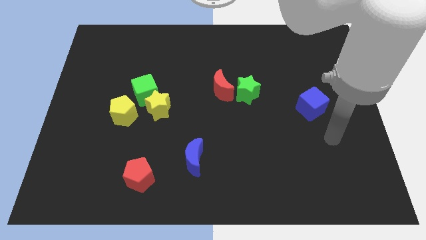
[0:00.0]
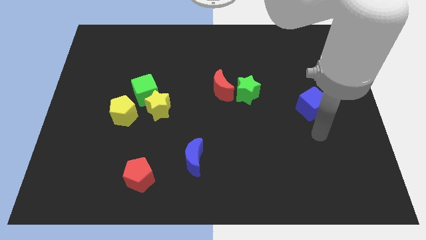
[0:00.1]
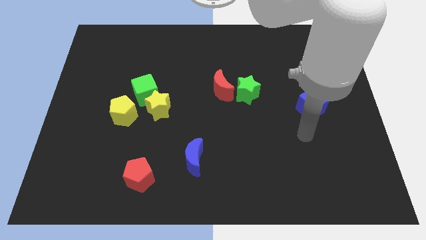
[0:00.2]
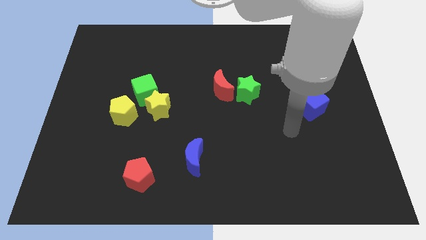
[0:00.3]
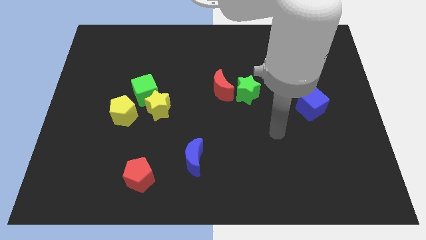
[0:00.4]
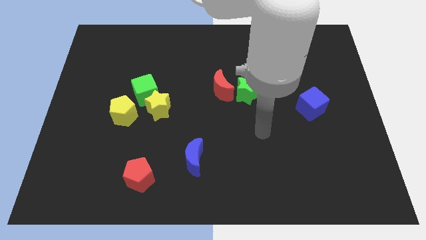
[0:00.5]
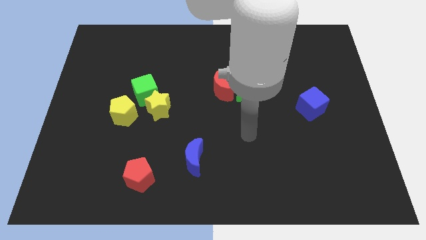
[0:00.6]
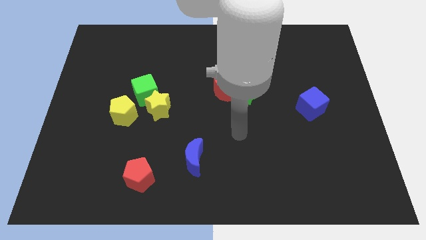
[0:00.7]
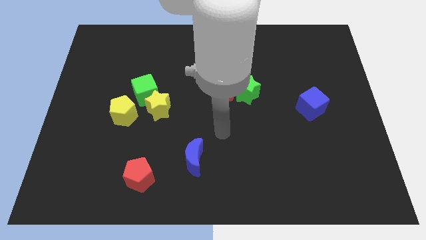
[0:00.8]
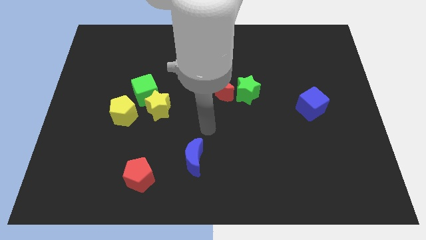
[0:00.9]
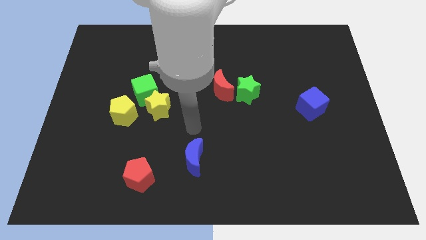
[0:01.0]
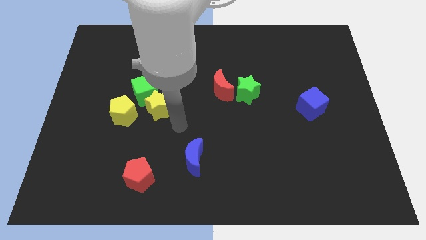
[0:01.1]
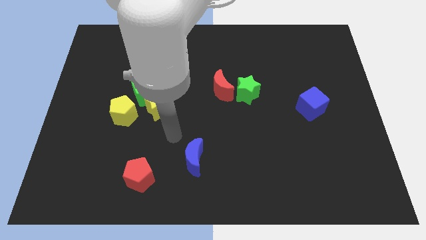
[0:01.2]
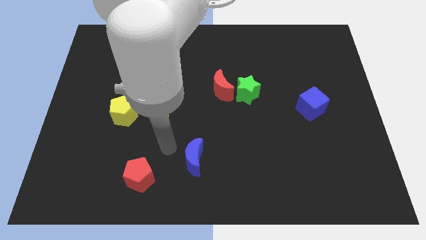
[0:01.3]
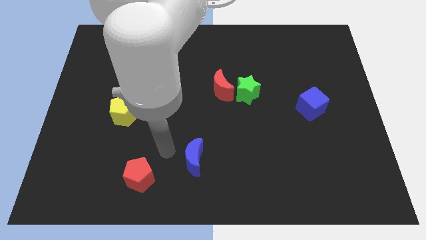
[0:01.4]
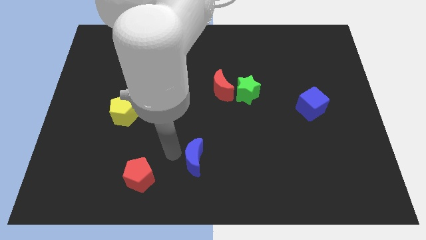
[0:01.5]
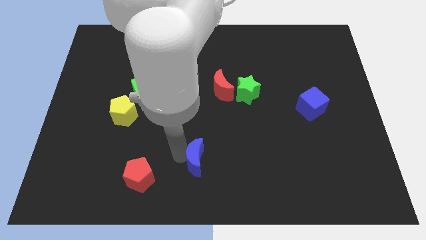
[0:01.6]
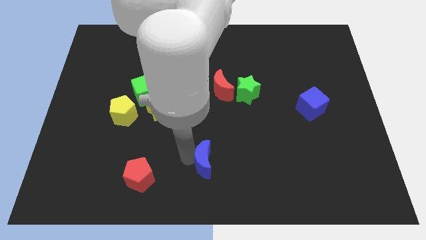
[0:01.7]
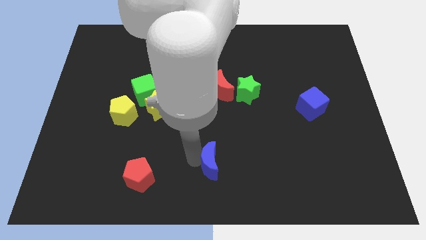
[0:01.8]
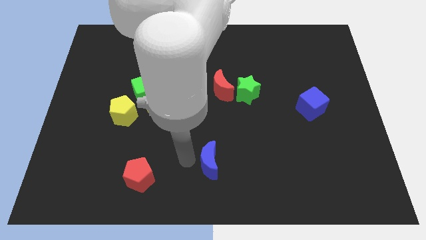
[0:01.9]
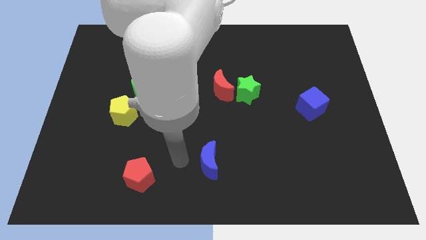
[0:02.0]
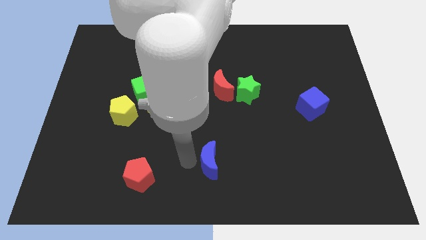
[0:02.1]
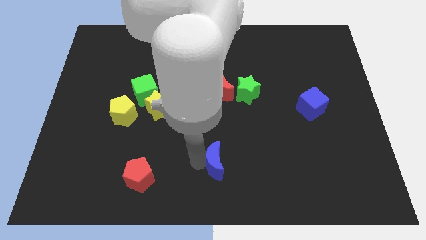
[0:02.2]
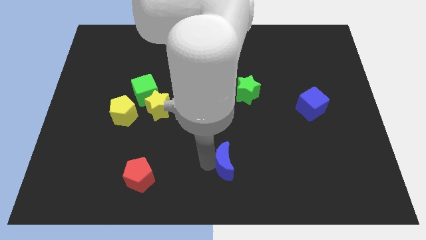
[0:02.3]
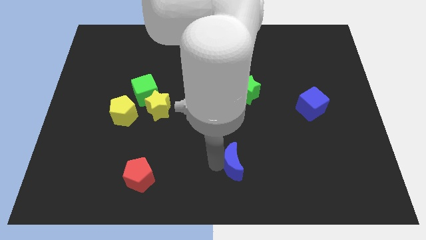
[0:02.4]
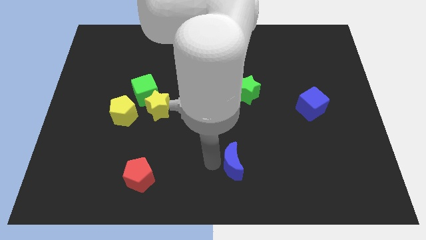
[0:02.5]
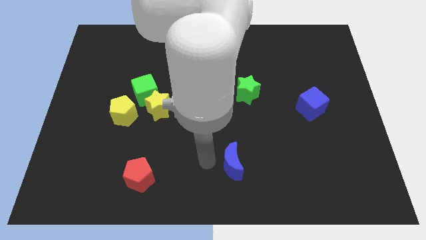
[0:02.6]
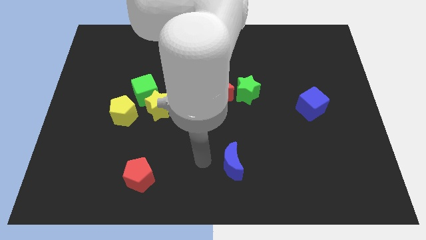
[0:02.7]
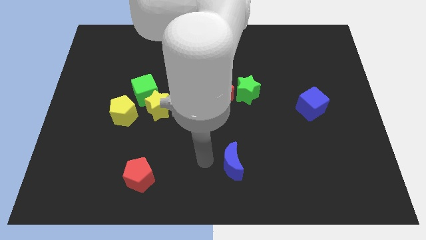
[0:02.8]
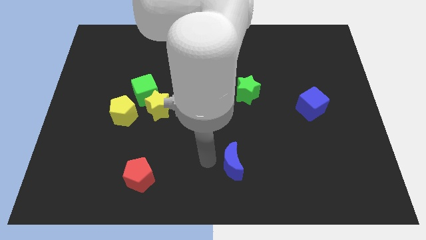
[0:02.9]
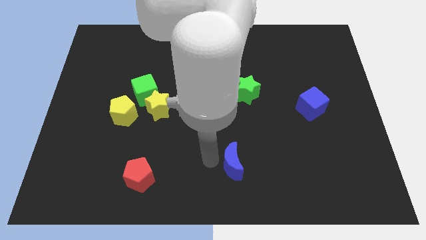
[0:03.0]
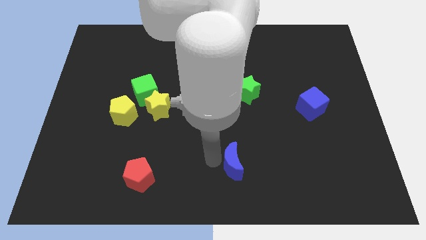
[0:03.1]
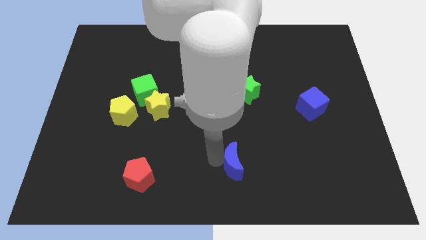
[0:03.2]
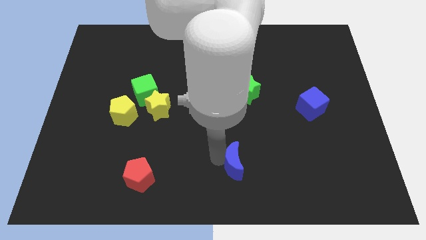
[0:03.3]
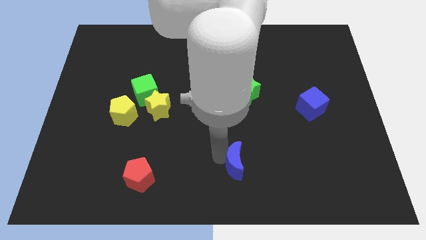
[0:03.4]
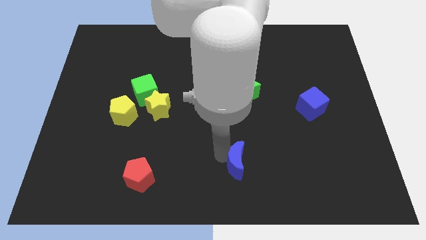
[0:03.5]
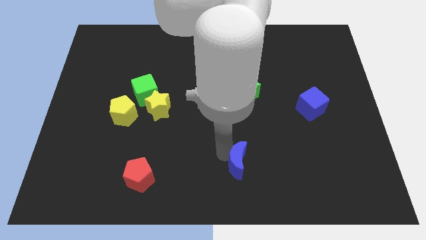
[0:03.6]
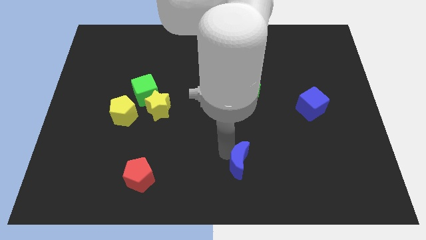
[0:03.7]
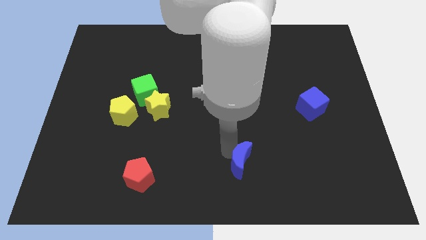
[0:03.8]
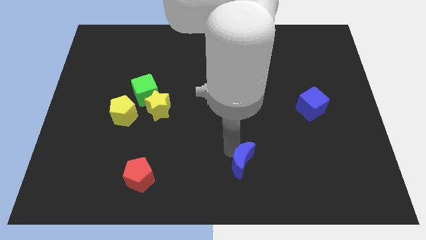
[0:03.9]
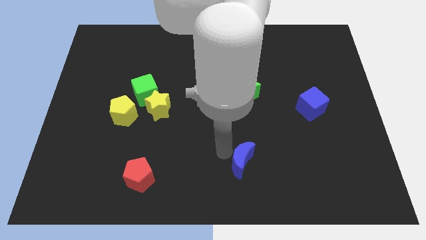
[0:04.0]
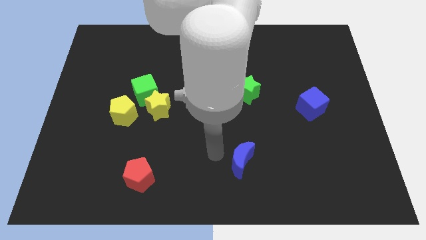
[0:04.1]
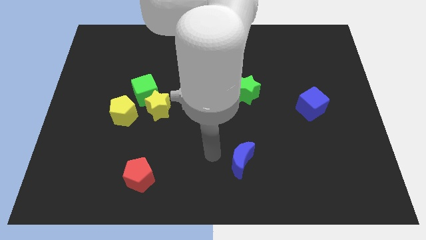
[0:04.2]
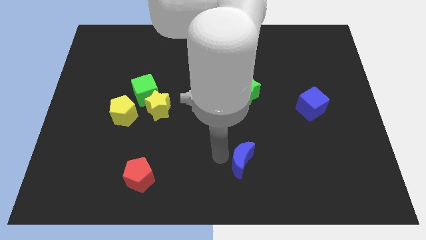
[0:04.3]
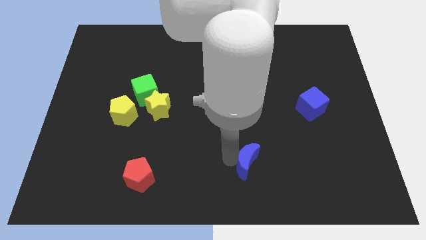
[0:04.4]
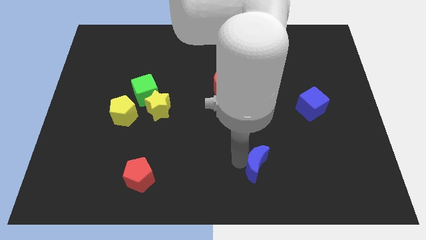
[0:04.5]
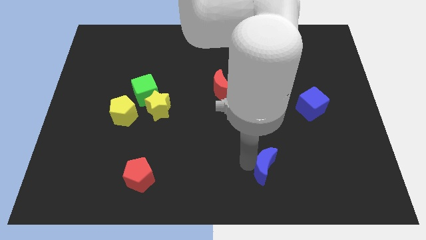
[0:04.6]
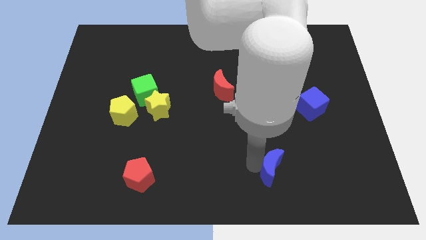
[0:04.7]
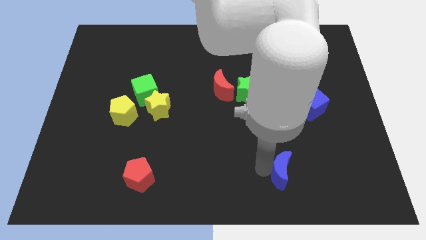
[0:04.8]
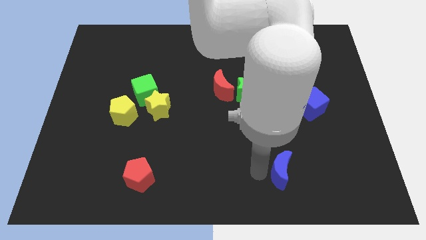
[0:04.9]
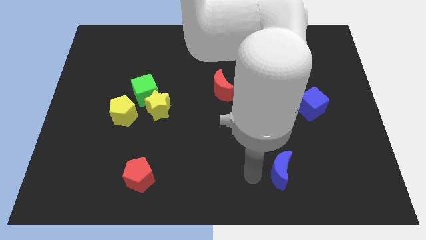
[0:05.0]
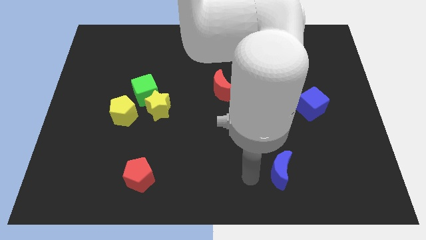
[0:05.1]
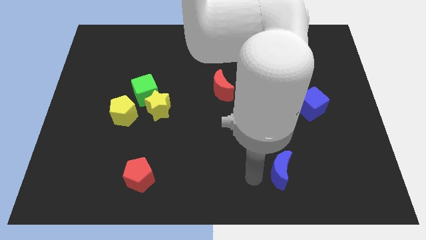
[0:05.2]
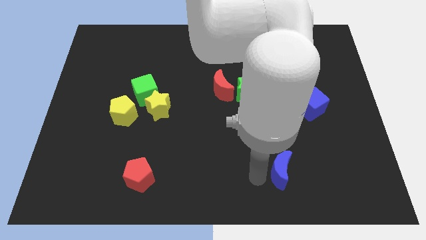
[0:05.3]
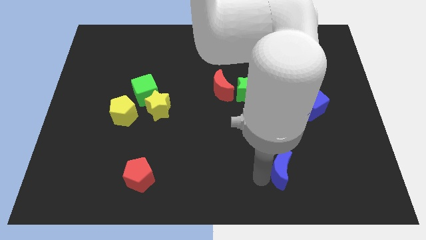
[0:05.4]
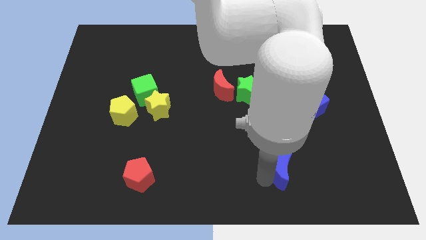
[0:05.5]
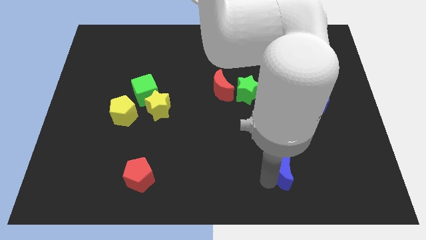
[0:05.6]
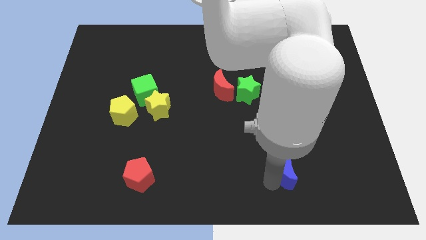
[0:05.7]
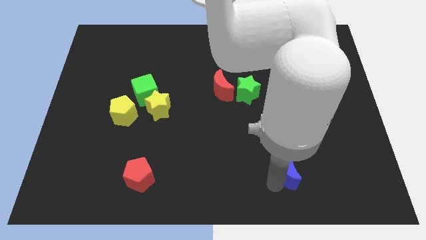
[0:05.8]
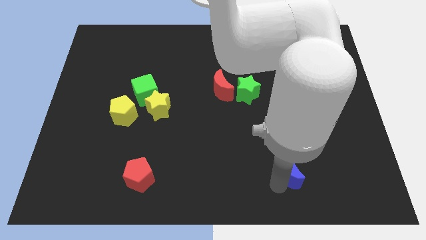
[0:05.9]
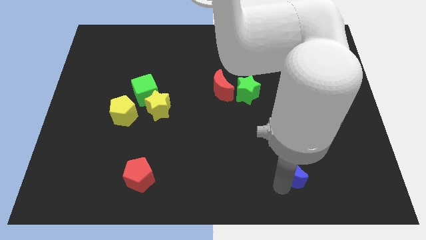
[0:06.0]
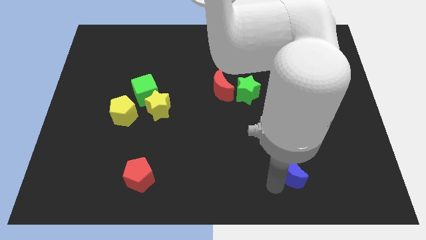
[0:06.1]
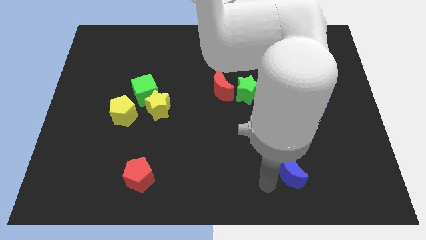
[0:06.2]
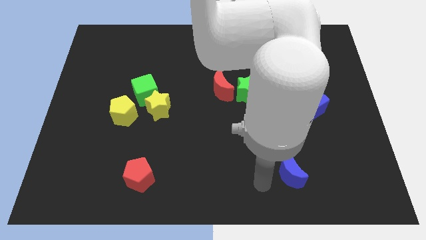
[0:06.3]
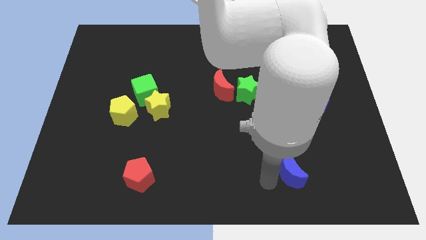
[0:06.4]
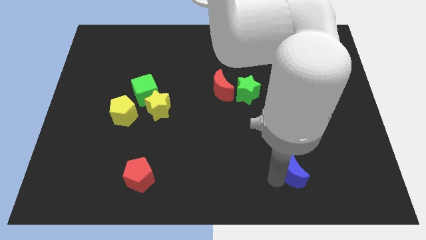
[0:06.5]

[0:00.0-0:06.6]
push the blue moon to the right

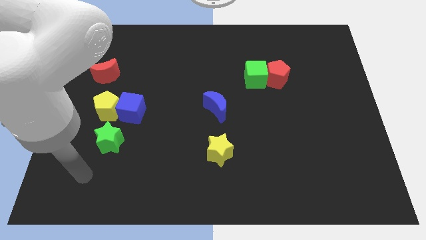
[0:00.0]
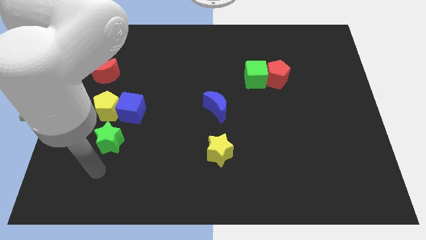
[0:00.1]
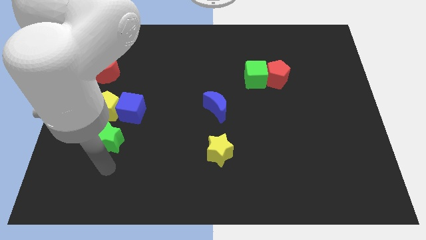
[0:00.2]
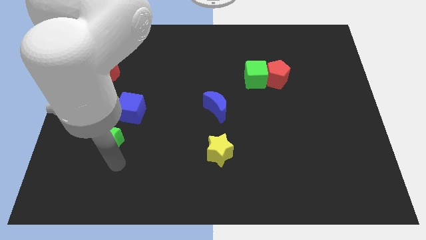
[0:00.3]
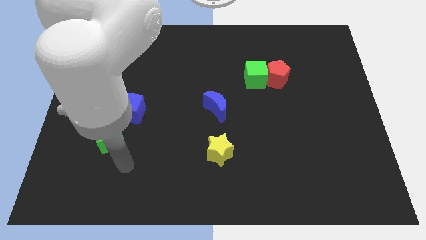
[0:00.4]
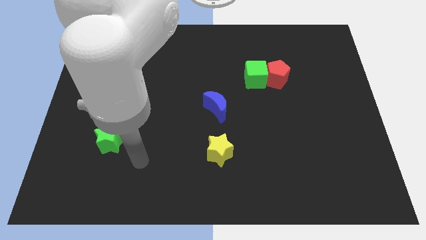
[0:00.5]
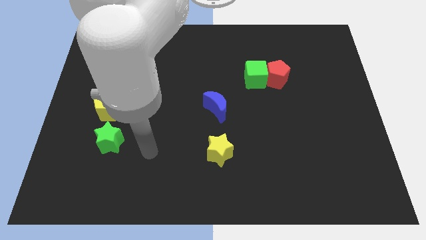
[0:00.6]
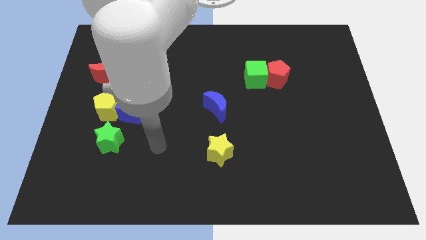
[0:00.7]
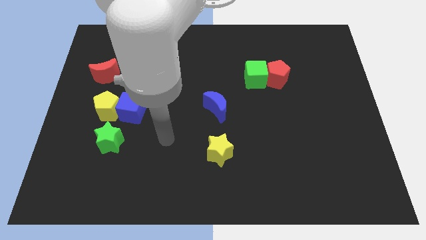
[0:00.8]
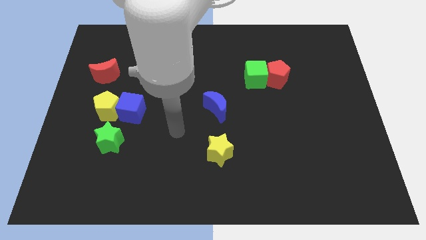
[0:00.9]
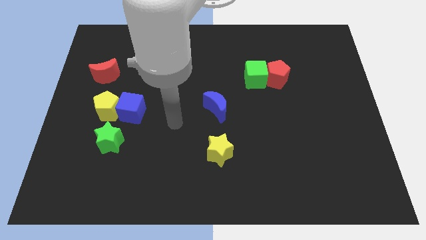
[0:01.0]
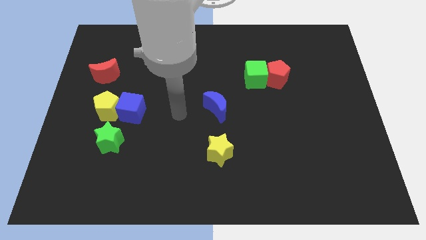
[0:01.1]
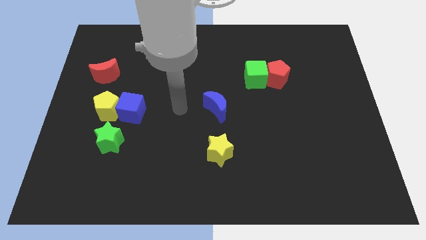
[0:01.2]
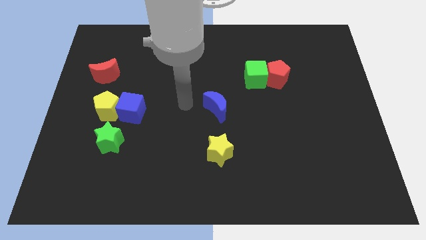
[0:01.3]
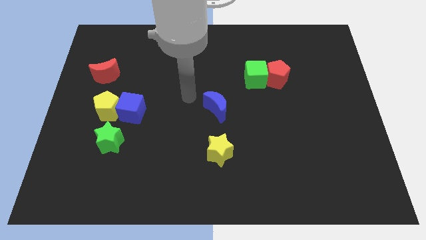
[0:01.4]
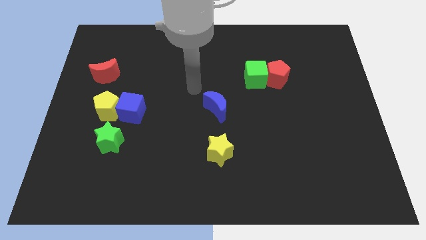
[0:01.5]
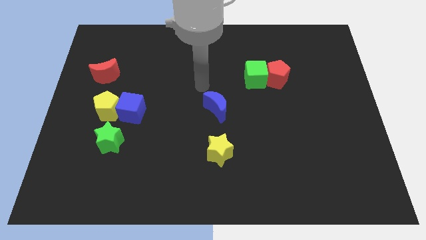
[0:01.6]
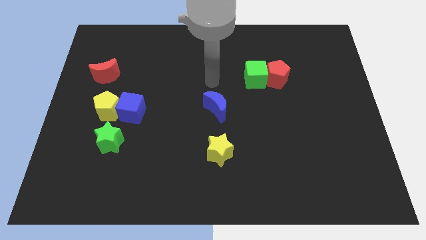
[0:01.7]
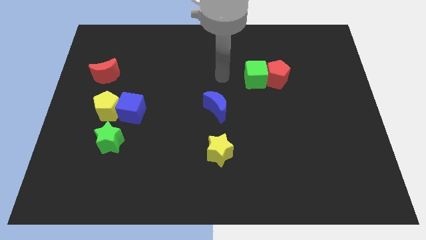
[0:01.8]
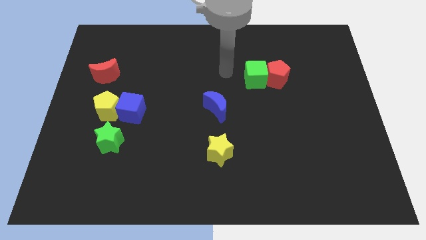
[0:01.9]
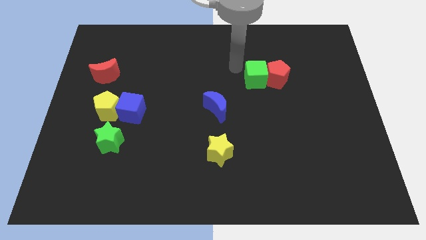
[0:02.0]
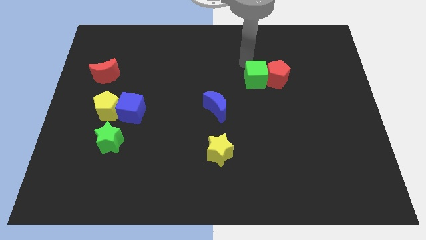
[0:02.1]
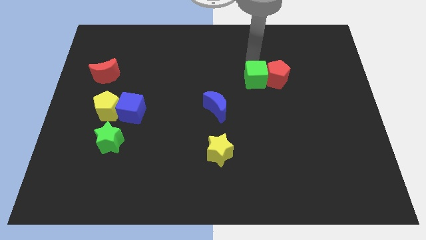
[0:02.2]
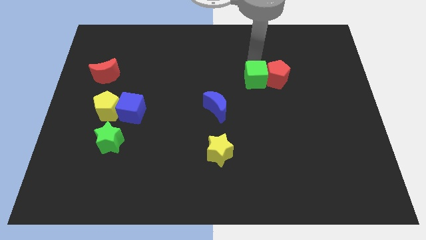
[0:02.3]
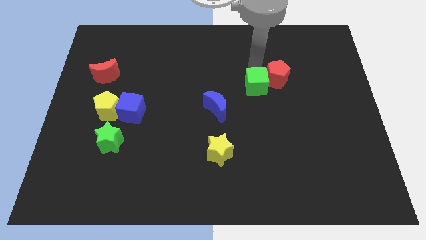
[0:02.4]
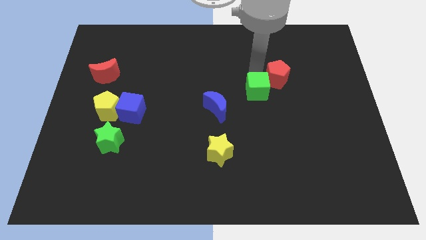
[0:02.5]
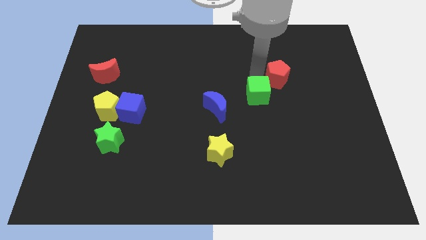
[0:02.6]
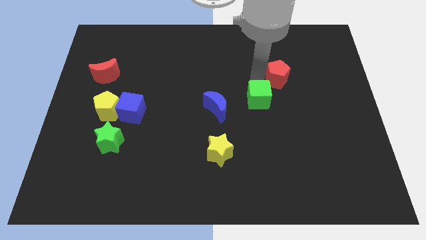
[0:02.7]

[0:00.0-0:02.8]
push the green cube downwards a little
